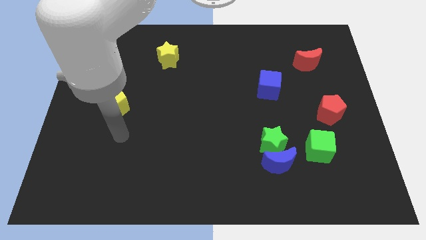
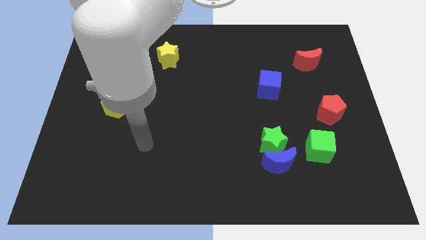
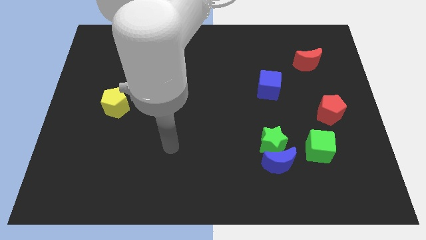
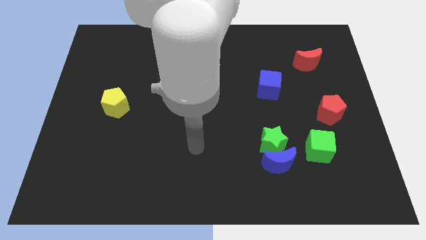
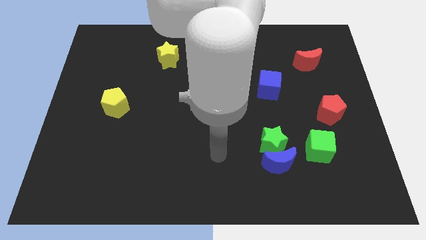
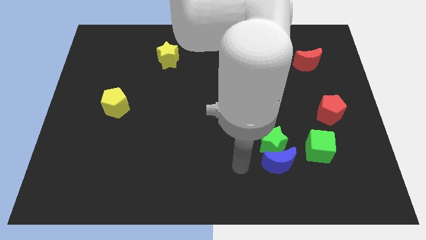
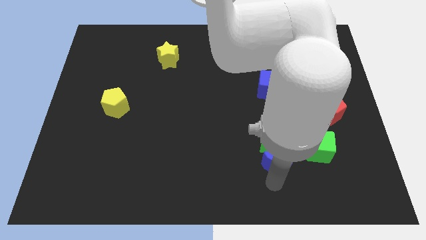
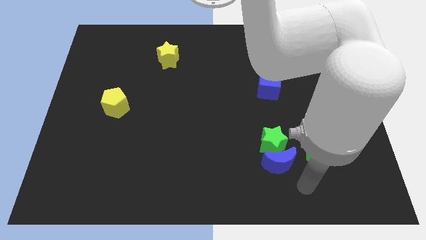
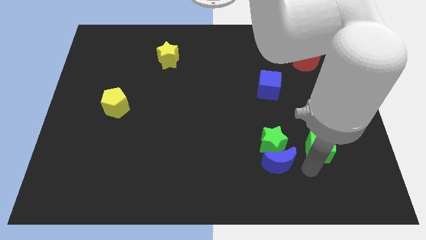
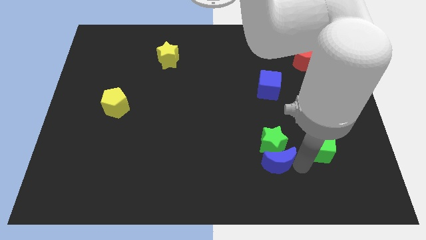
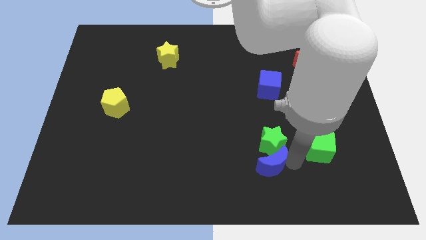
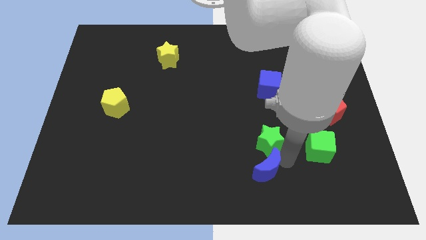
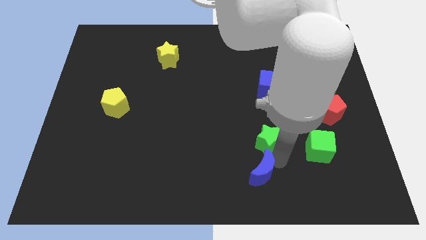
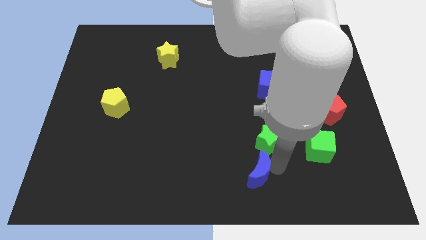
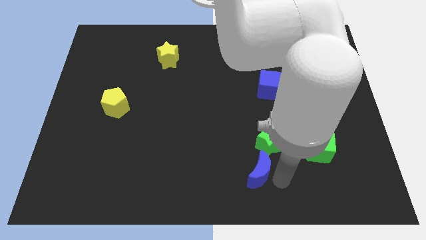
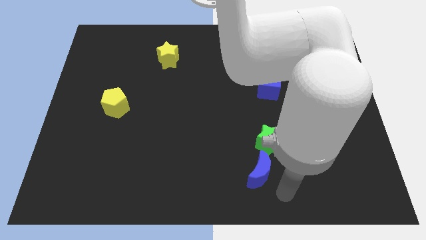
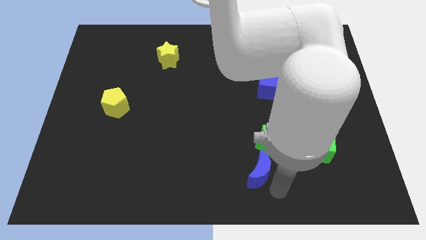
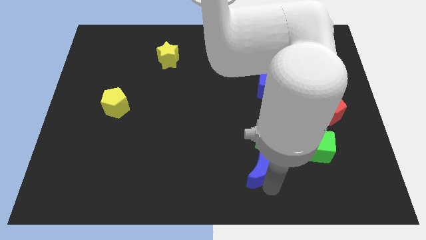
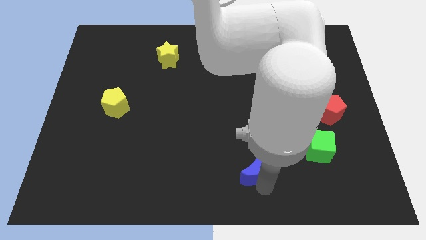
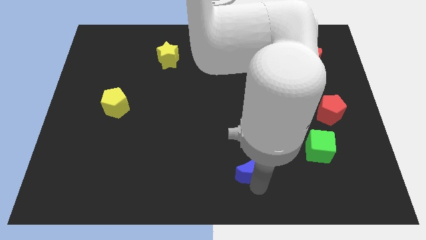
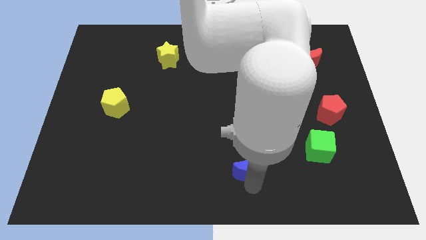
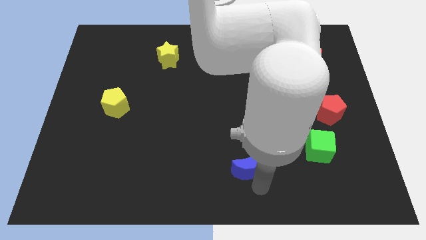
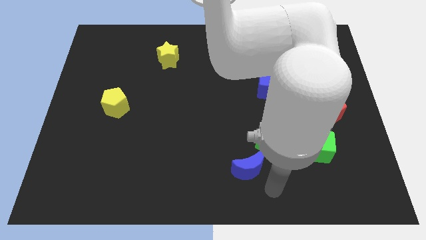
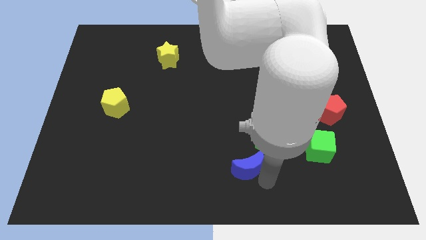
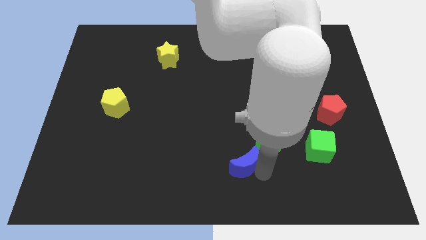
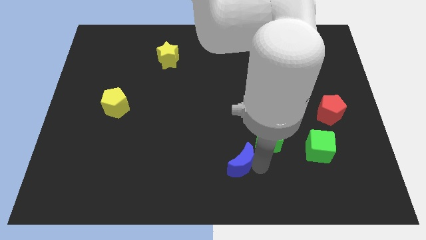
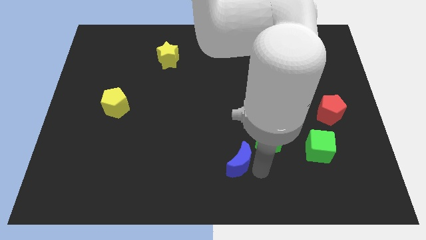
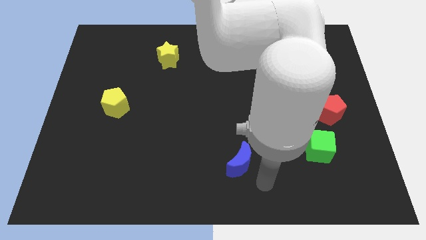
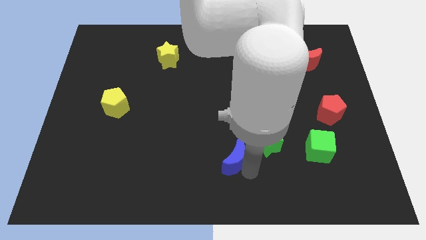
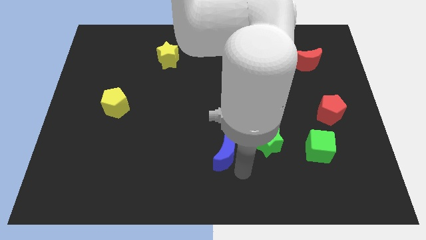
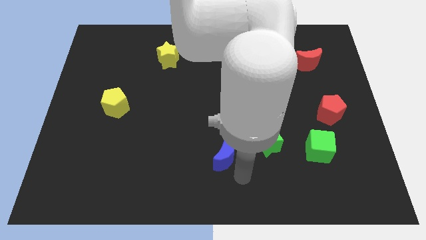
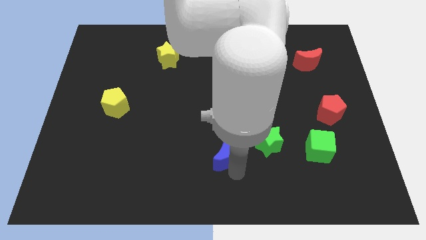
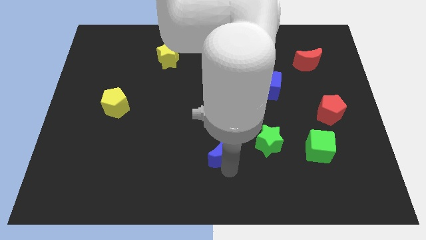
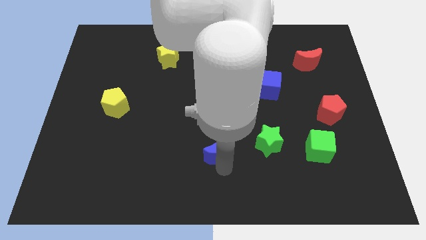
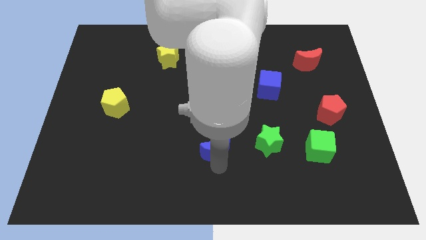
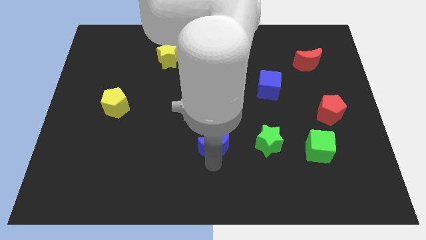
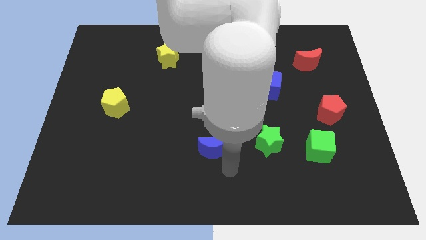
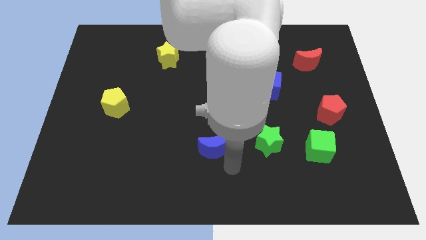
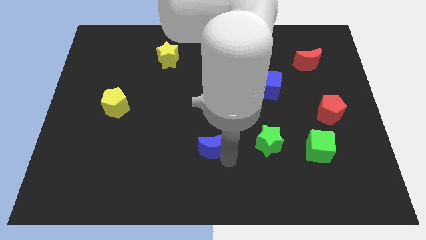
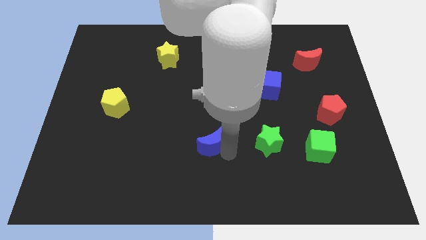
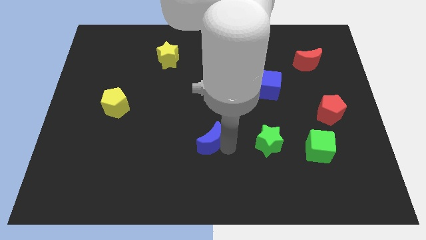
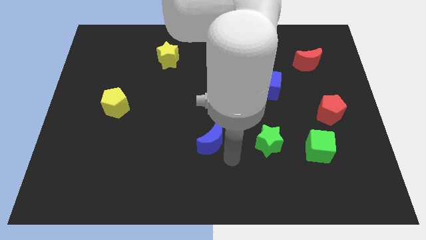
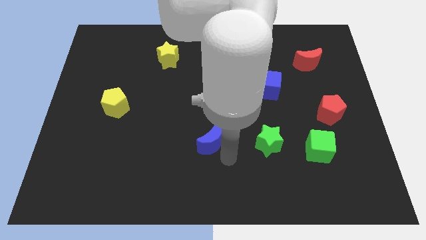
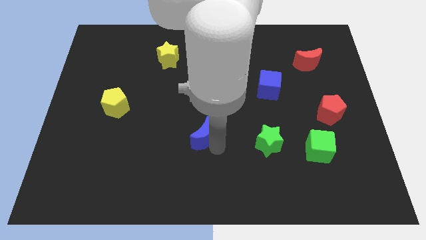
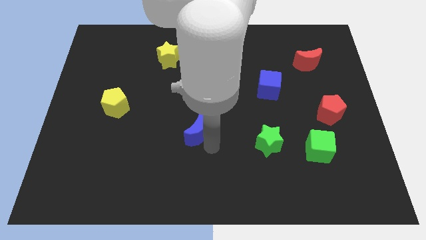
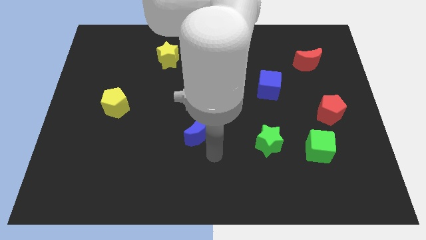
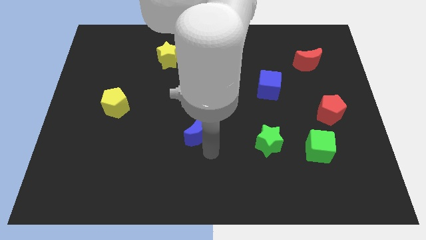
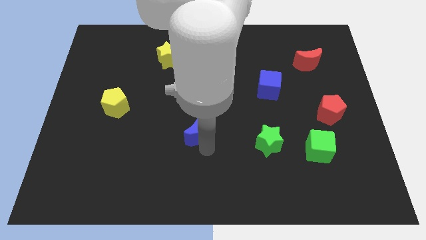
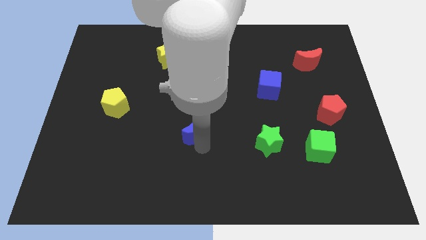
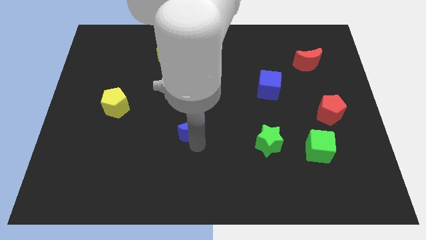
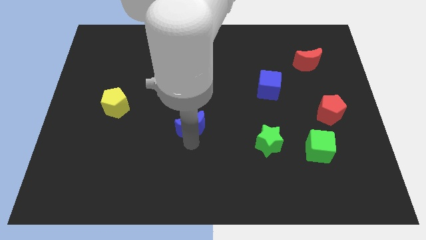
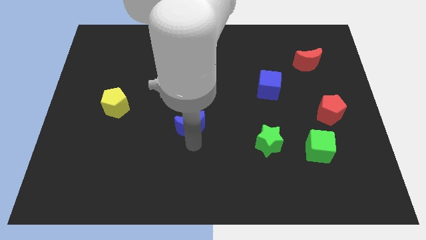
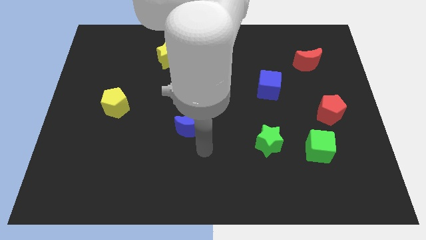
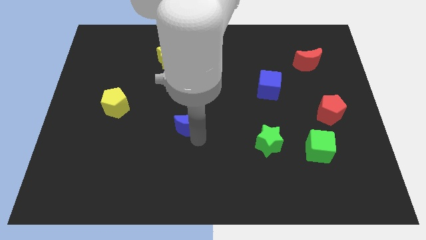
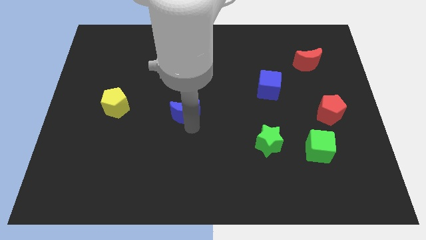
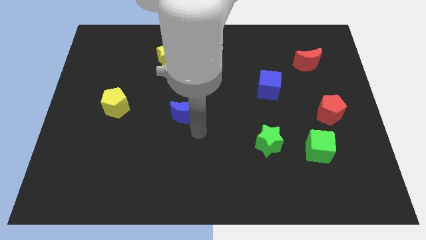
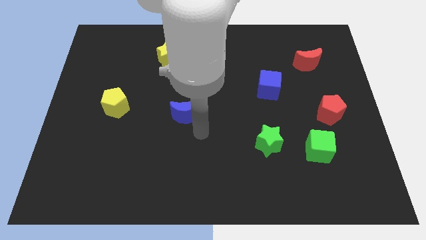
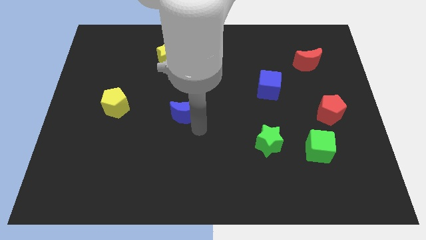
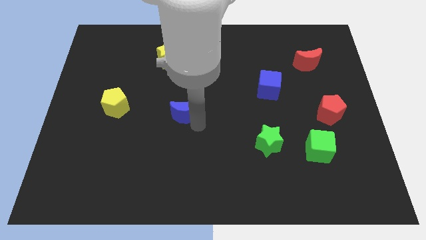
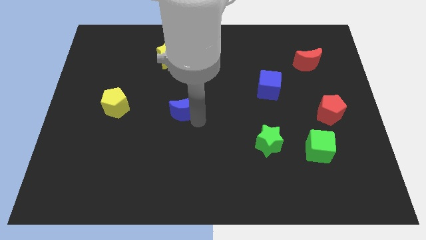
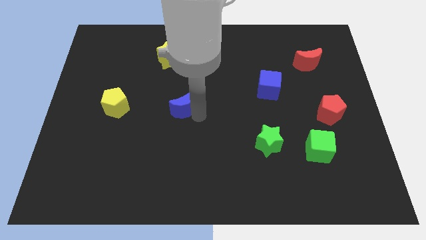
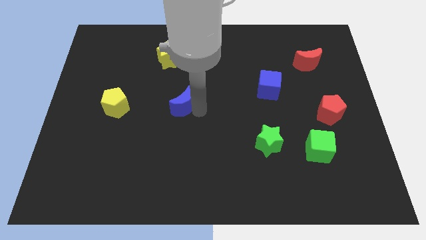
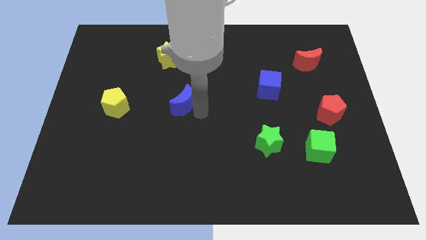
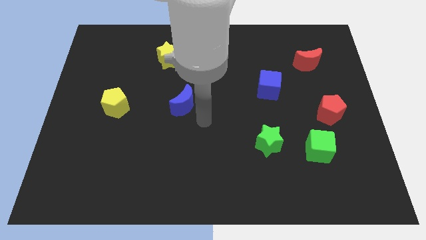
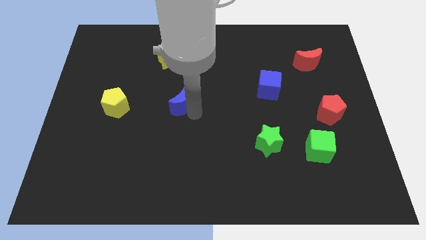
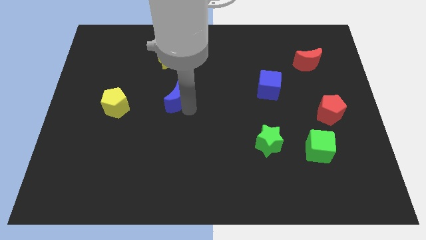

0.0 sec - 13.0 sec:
put the blue moon to the bottom side of the yellow star

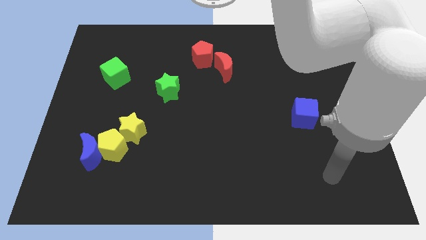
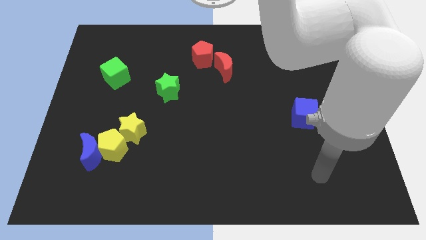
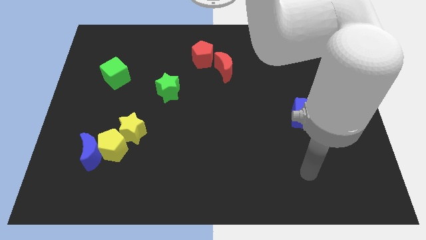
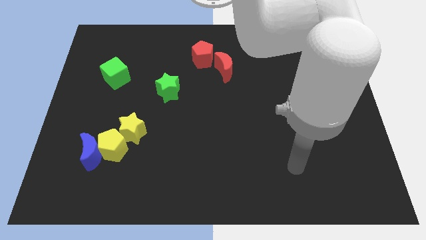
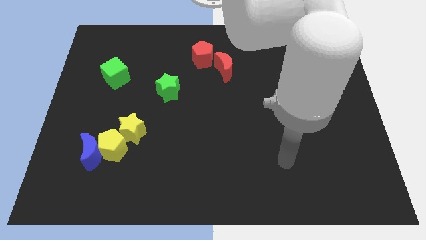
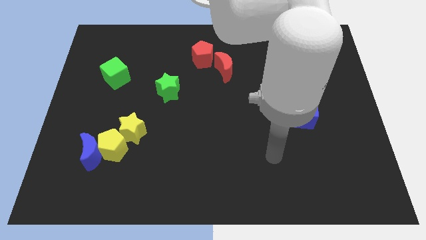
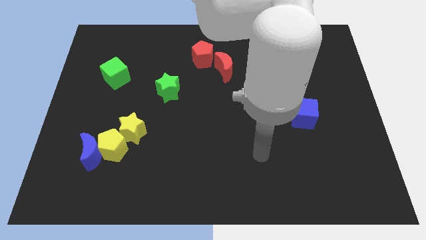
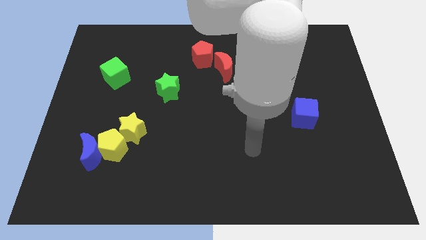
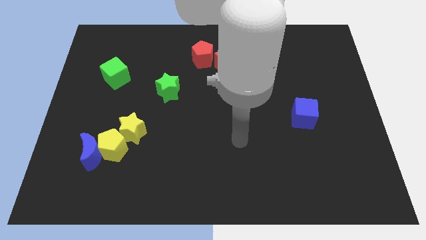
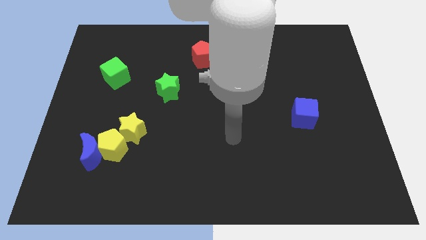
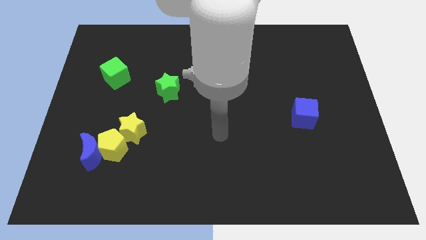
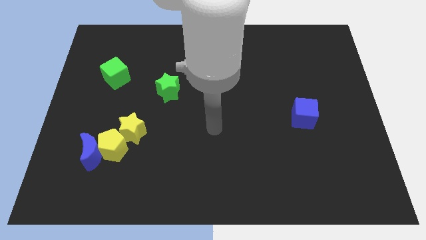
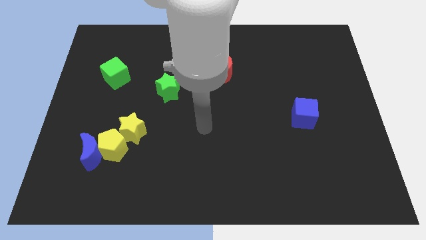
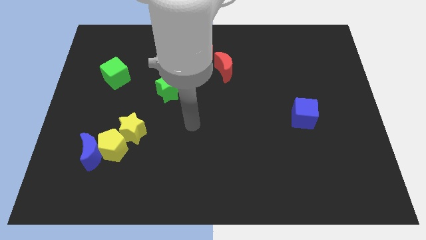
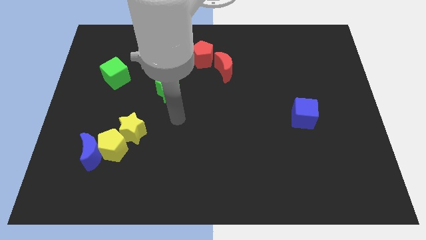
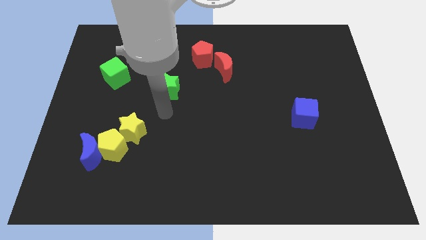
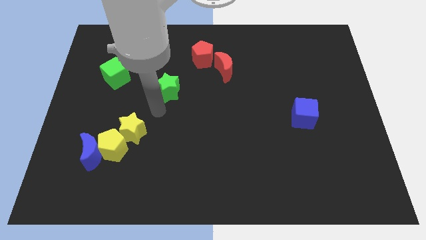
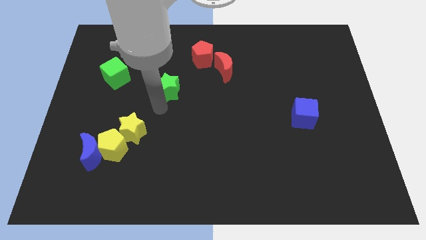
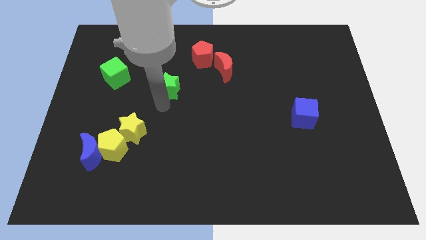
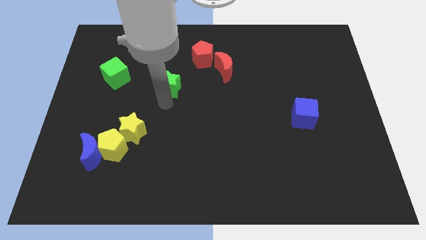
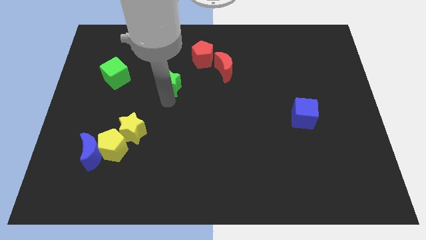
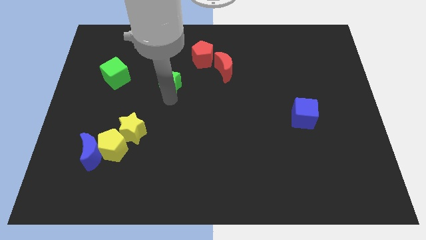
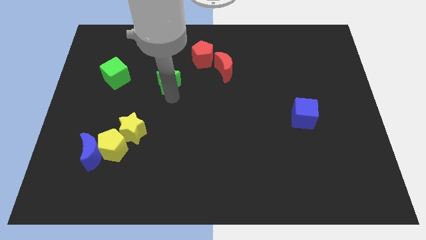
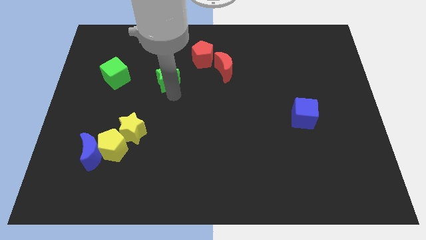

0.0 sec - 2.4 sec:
move the green star just left of the red moon
